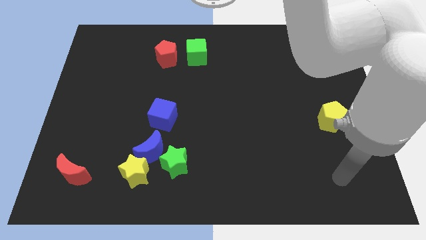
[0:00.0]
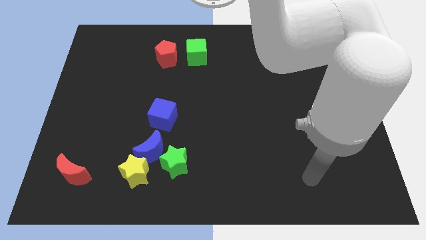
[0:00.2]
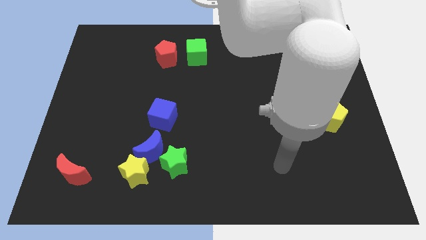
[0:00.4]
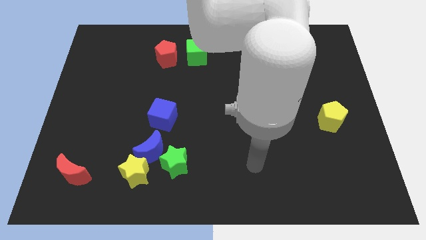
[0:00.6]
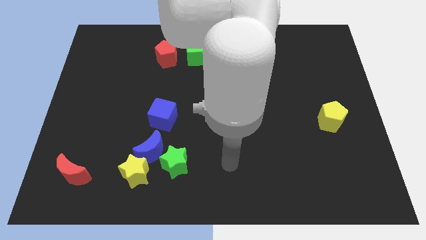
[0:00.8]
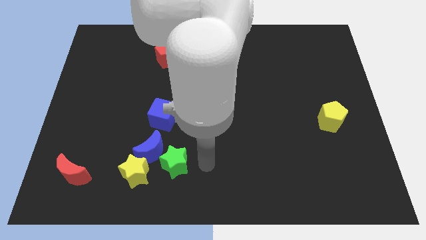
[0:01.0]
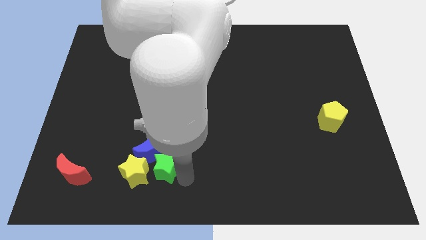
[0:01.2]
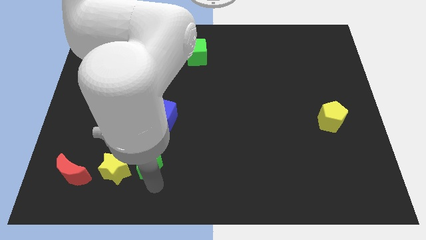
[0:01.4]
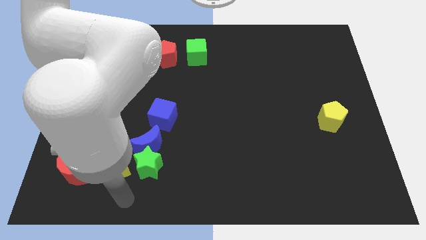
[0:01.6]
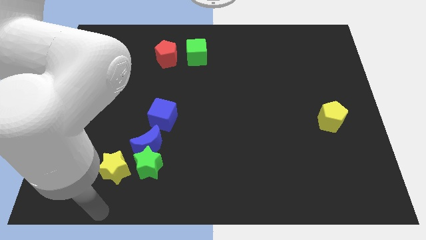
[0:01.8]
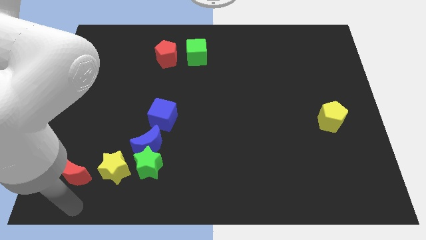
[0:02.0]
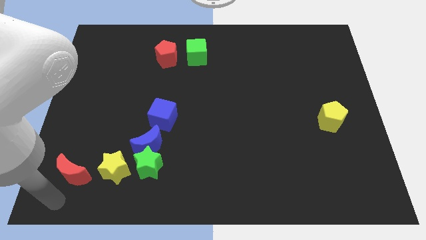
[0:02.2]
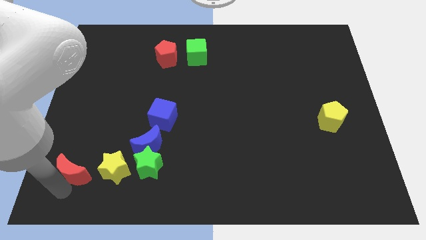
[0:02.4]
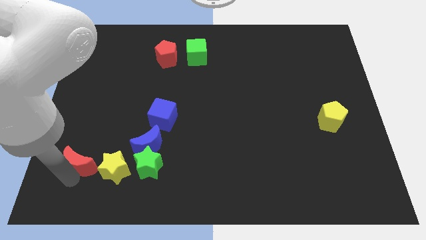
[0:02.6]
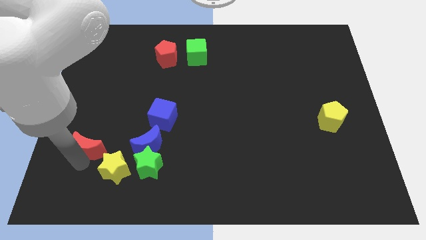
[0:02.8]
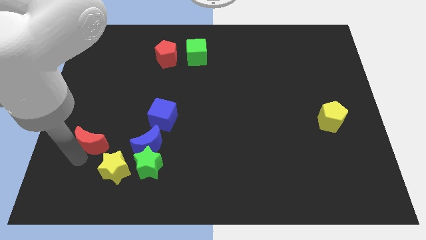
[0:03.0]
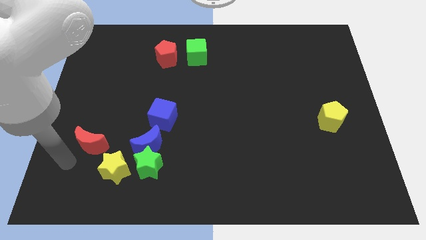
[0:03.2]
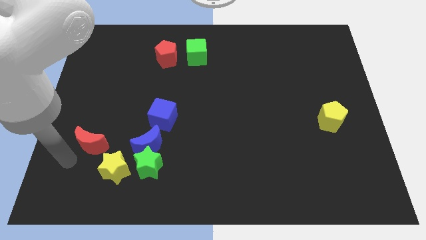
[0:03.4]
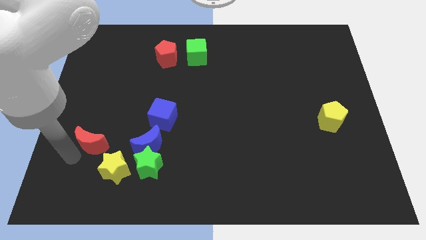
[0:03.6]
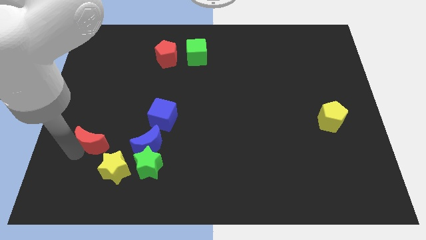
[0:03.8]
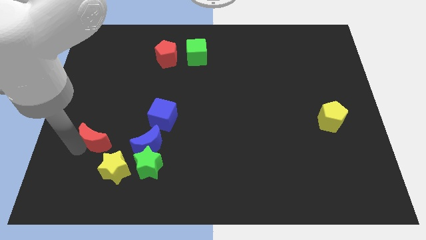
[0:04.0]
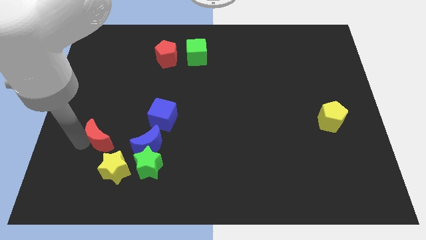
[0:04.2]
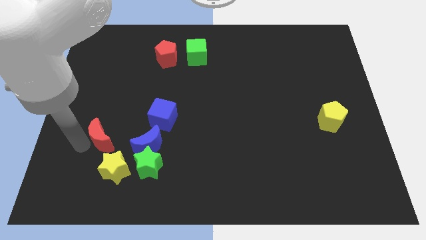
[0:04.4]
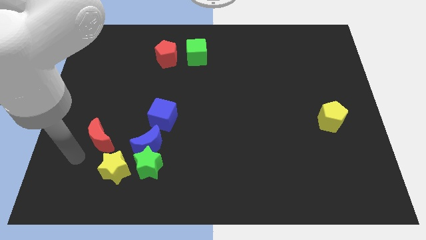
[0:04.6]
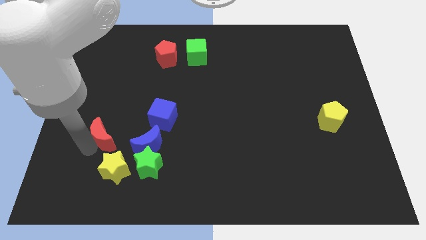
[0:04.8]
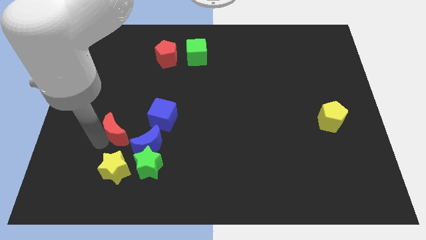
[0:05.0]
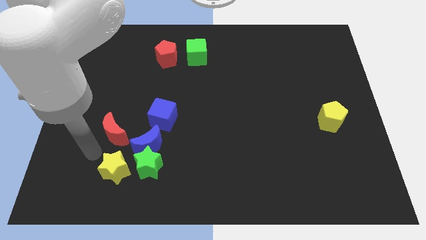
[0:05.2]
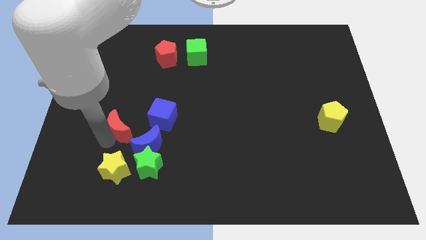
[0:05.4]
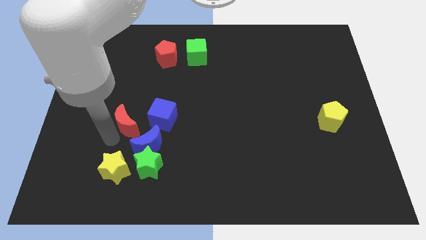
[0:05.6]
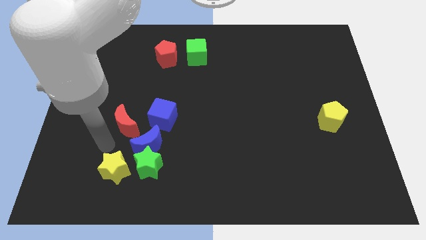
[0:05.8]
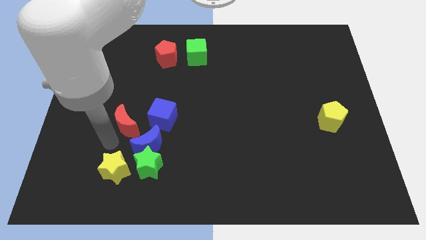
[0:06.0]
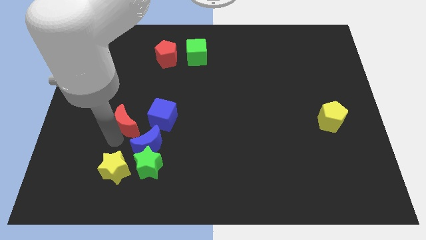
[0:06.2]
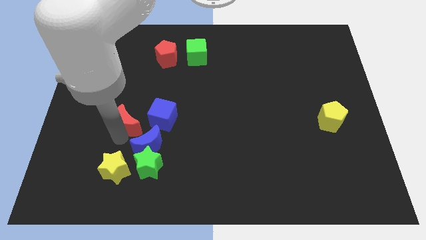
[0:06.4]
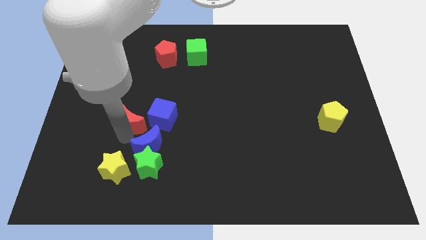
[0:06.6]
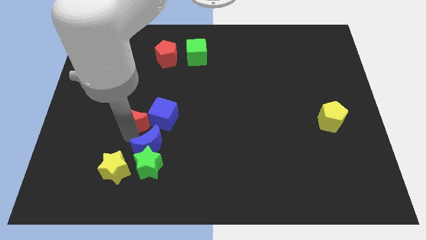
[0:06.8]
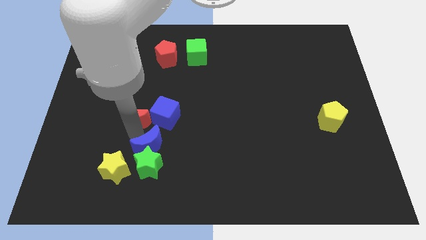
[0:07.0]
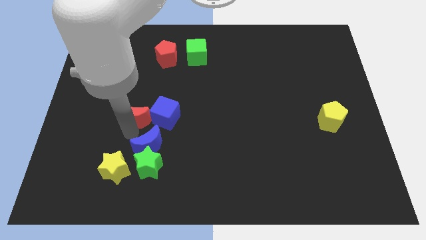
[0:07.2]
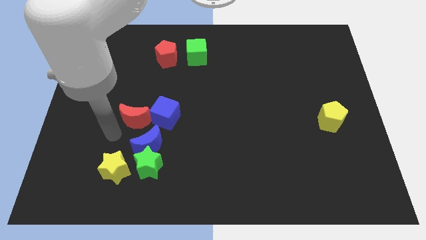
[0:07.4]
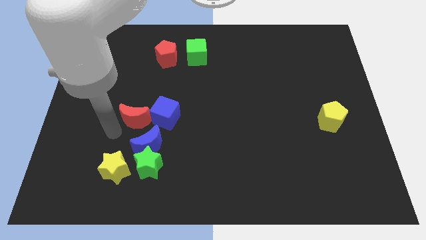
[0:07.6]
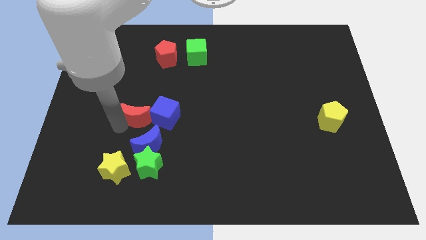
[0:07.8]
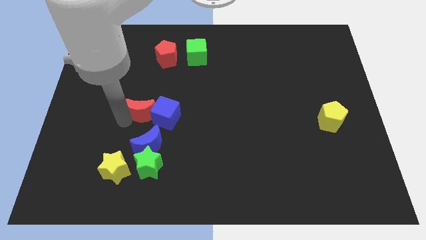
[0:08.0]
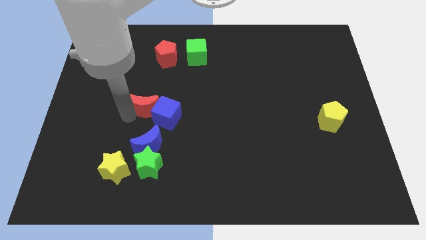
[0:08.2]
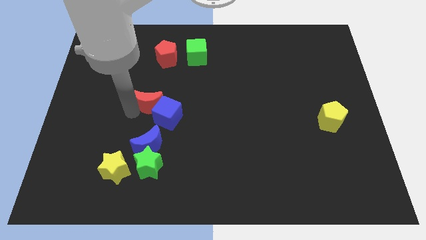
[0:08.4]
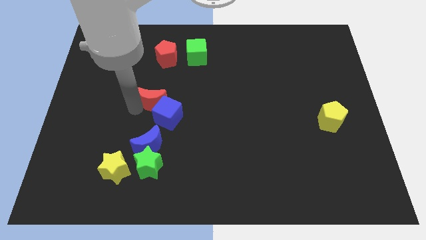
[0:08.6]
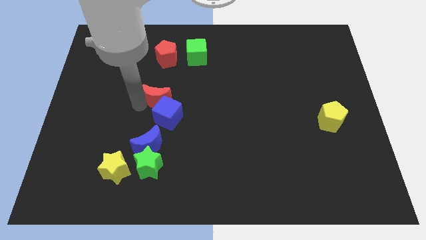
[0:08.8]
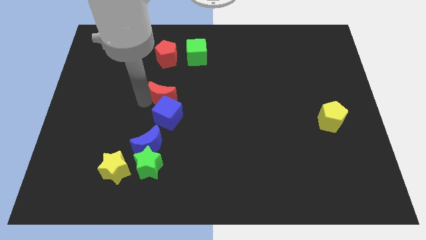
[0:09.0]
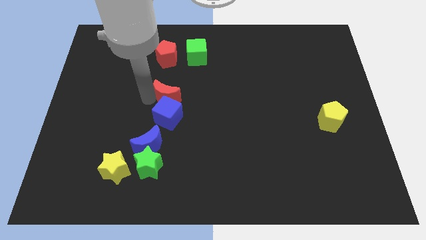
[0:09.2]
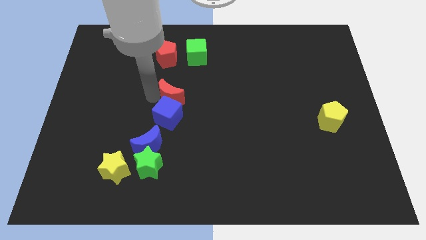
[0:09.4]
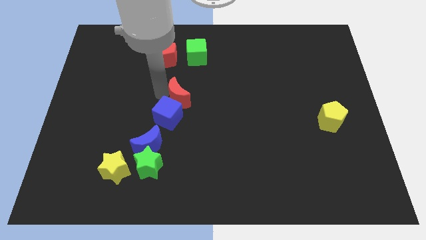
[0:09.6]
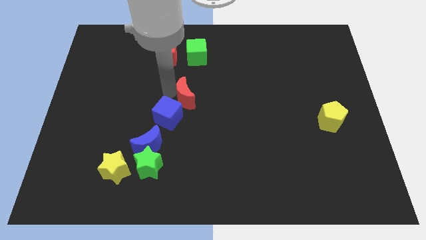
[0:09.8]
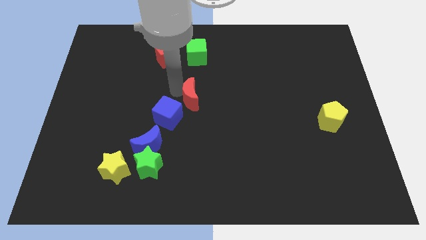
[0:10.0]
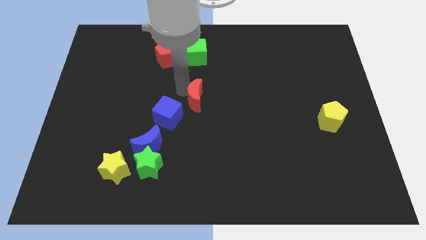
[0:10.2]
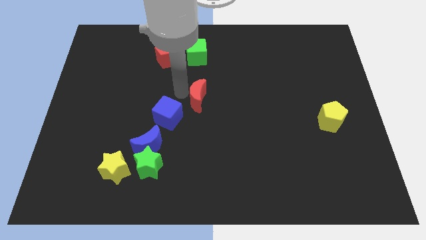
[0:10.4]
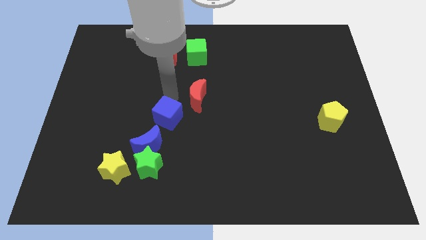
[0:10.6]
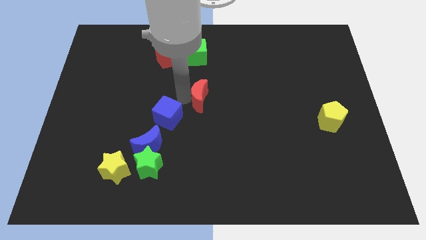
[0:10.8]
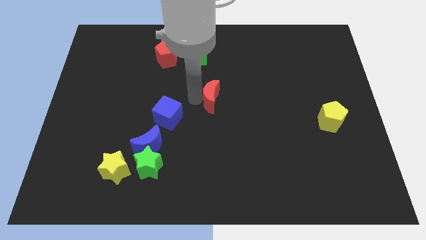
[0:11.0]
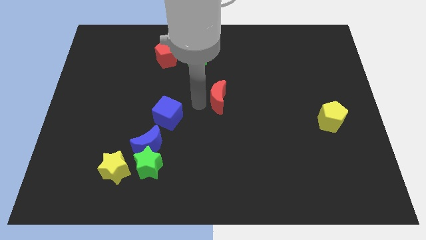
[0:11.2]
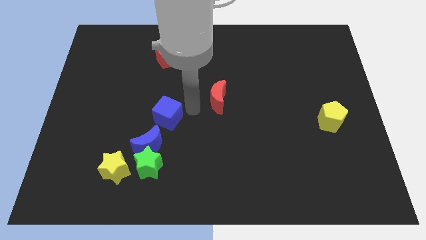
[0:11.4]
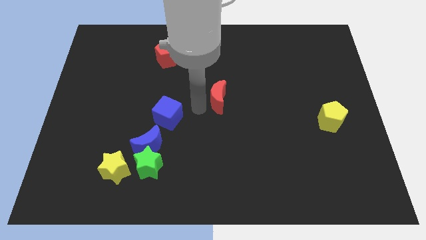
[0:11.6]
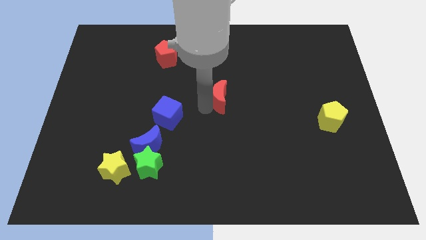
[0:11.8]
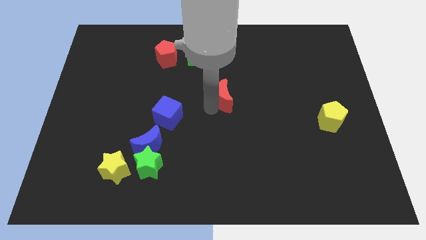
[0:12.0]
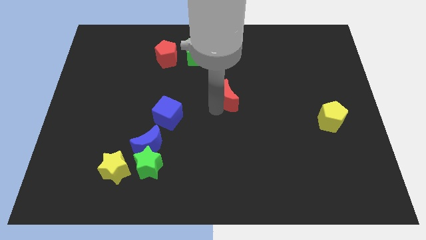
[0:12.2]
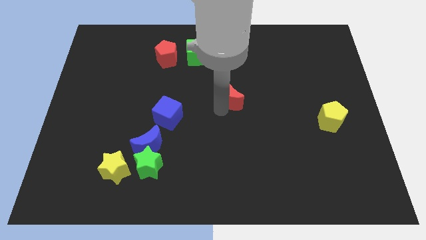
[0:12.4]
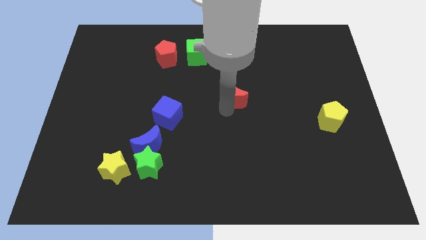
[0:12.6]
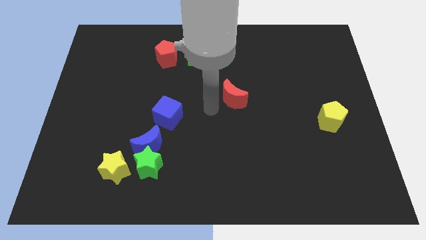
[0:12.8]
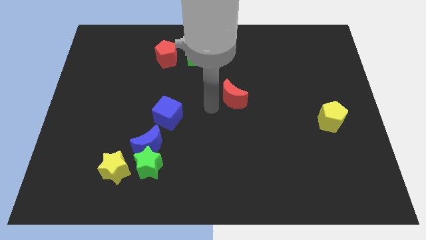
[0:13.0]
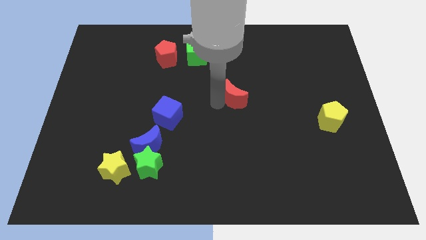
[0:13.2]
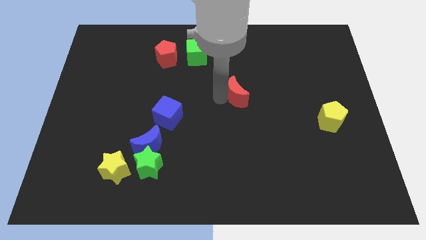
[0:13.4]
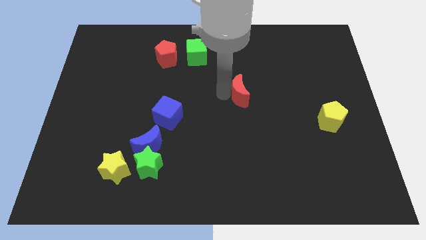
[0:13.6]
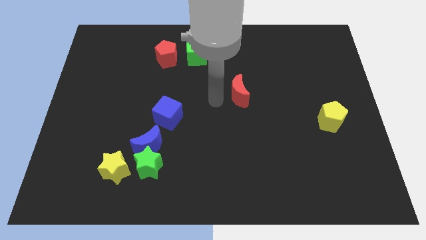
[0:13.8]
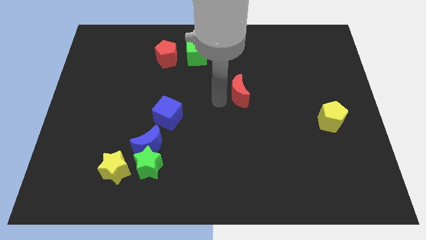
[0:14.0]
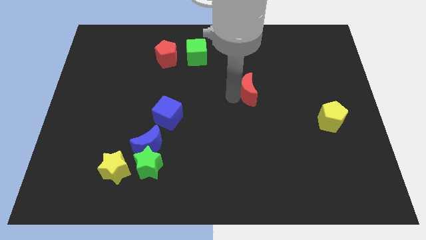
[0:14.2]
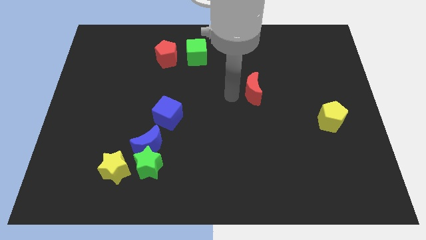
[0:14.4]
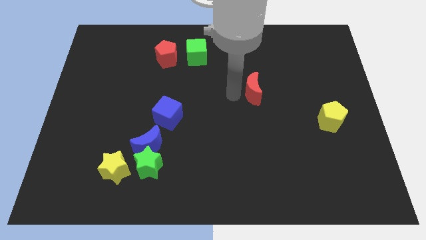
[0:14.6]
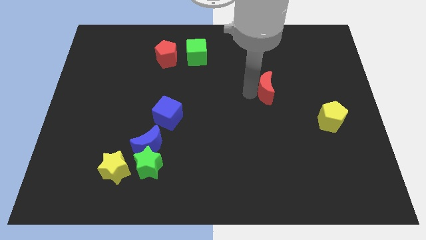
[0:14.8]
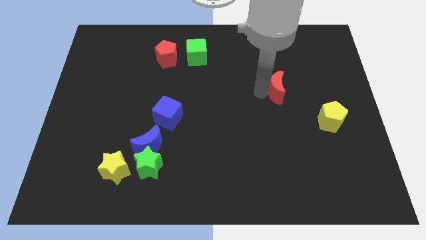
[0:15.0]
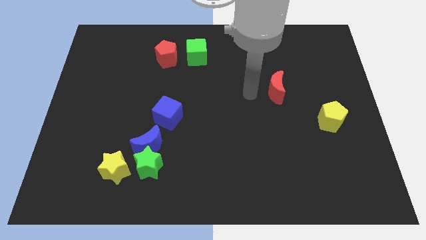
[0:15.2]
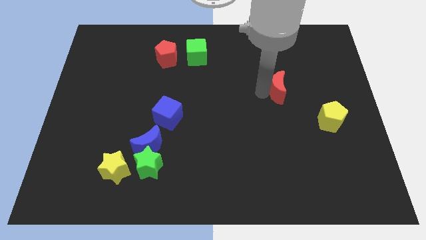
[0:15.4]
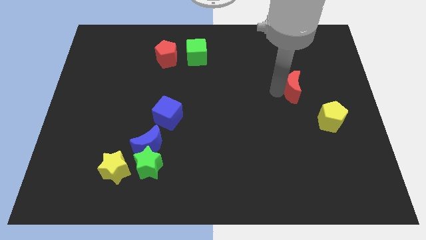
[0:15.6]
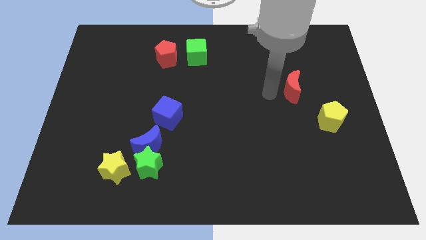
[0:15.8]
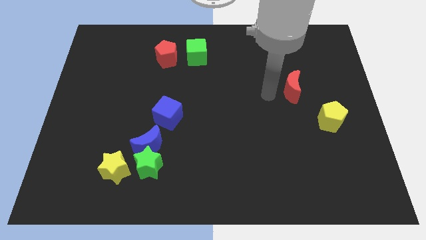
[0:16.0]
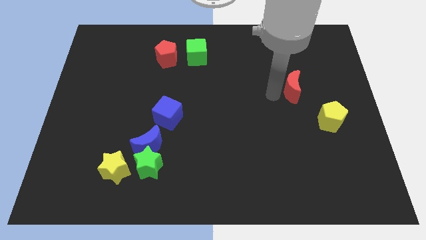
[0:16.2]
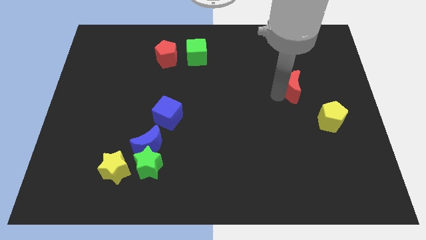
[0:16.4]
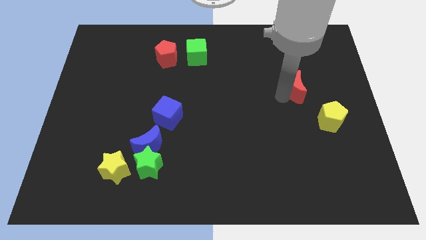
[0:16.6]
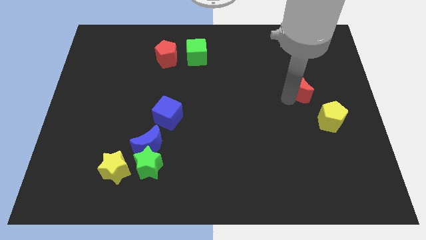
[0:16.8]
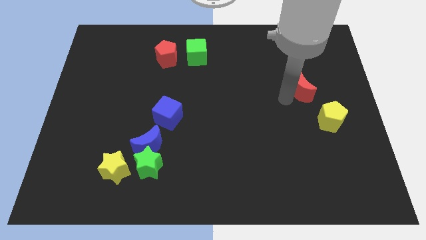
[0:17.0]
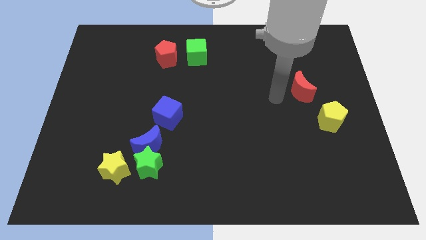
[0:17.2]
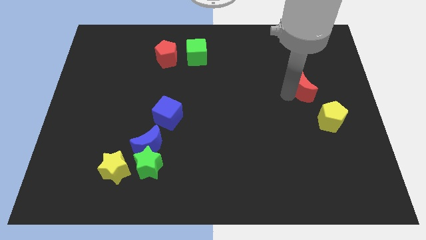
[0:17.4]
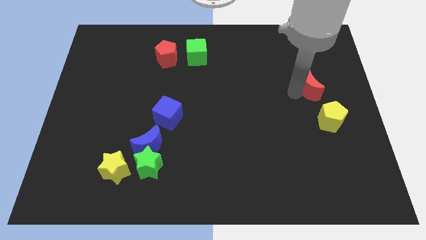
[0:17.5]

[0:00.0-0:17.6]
push the red moon above the yellow pentagon
